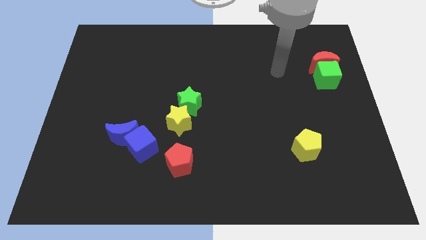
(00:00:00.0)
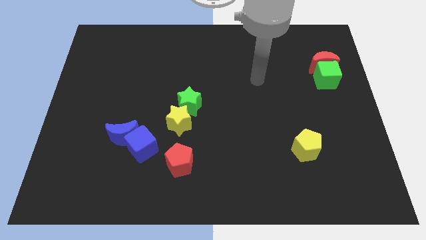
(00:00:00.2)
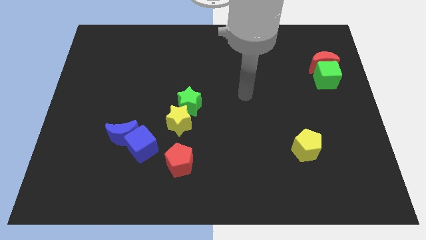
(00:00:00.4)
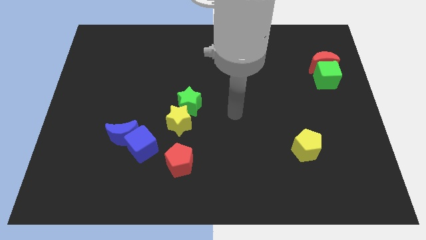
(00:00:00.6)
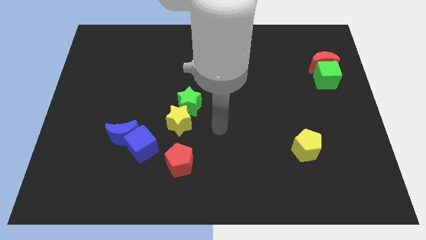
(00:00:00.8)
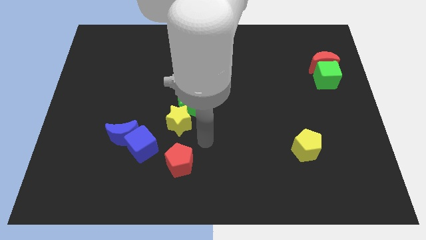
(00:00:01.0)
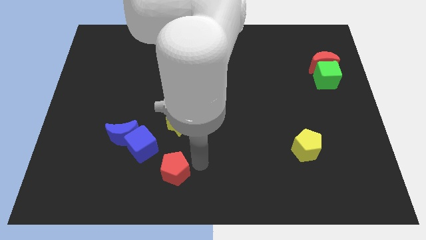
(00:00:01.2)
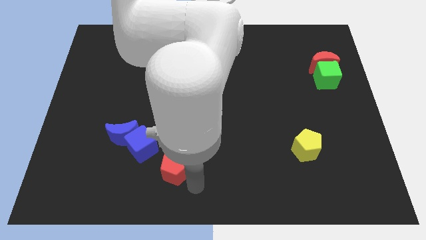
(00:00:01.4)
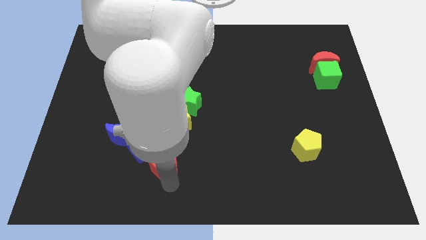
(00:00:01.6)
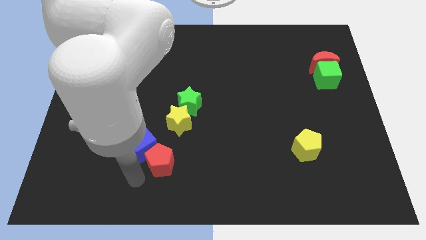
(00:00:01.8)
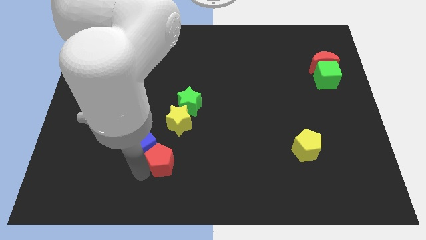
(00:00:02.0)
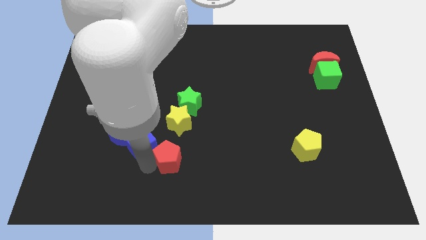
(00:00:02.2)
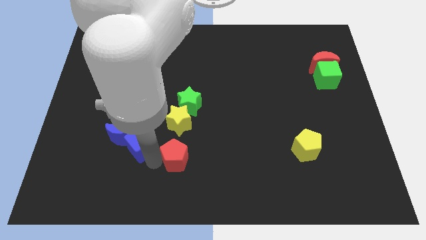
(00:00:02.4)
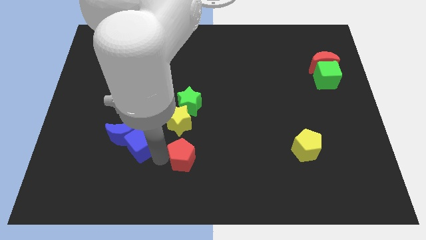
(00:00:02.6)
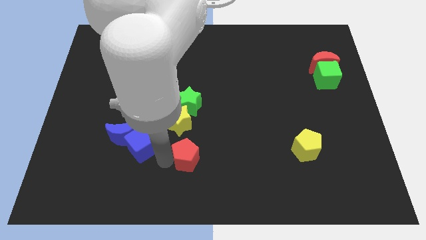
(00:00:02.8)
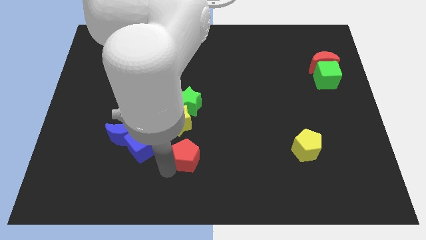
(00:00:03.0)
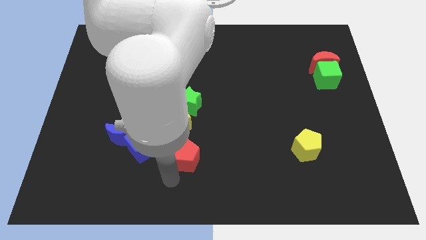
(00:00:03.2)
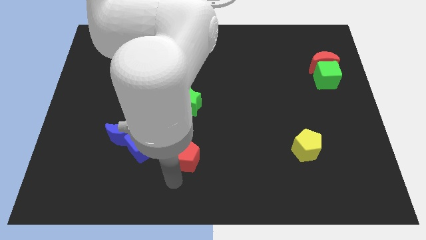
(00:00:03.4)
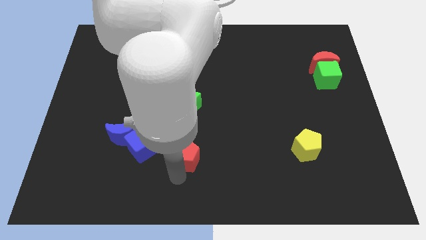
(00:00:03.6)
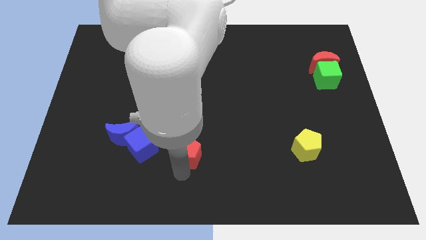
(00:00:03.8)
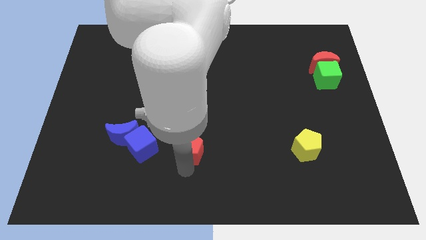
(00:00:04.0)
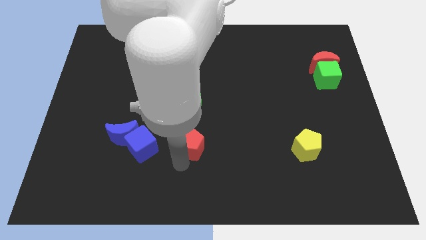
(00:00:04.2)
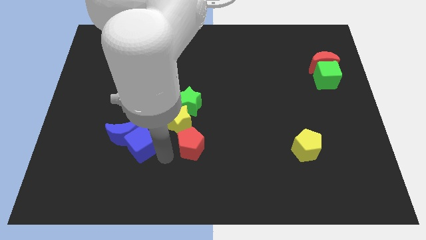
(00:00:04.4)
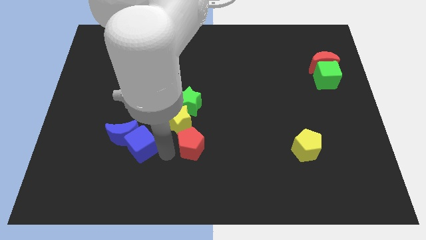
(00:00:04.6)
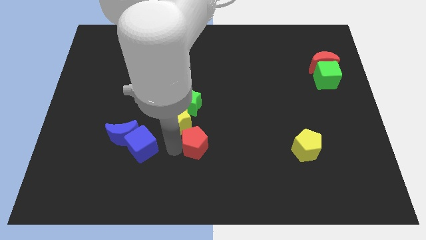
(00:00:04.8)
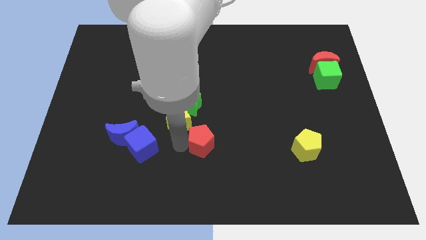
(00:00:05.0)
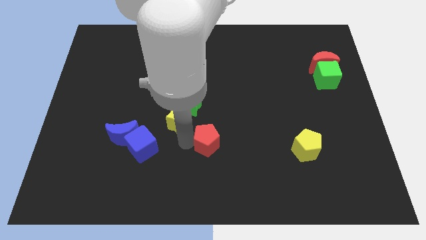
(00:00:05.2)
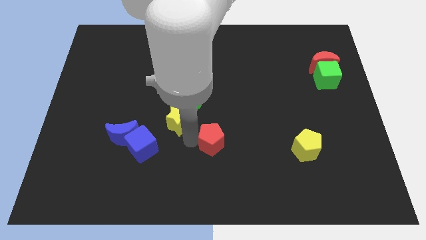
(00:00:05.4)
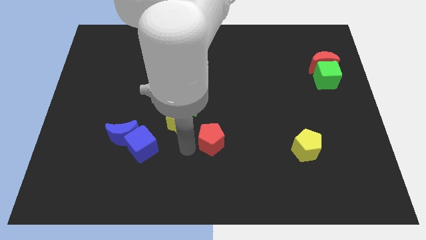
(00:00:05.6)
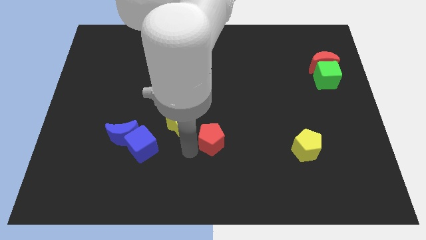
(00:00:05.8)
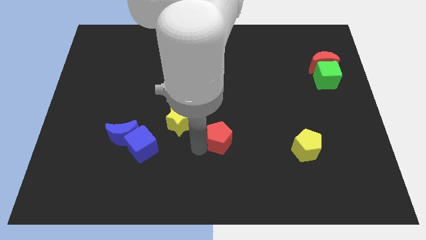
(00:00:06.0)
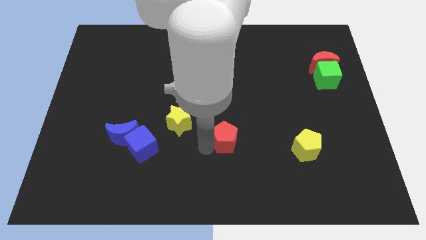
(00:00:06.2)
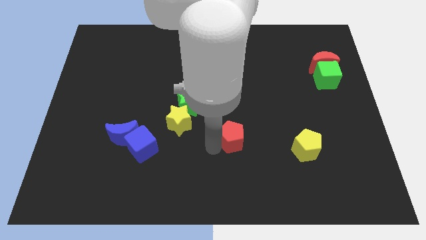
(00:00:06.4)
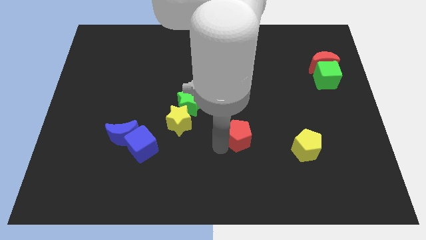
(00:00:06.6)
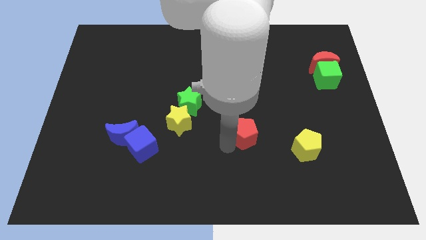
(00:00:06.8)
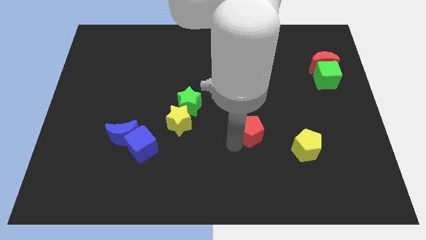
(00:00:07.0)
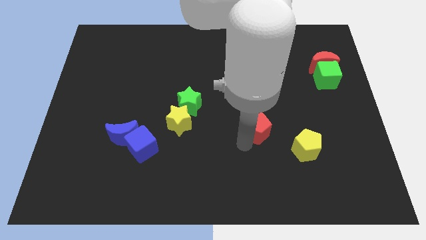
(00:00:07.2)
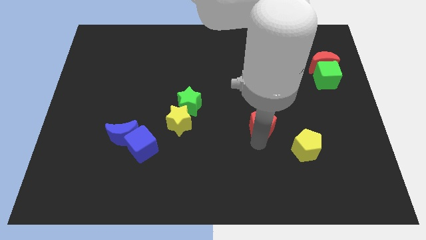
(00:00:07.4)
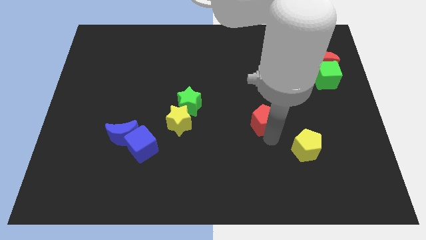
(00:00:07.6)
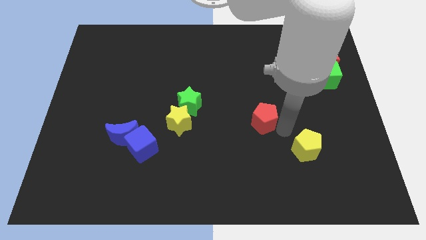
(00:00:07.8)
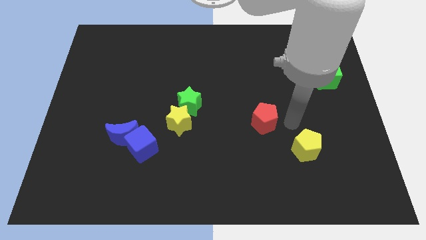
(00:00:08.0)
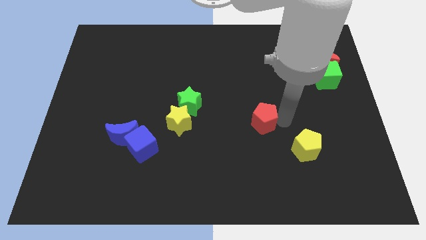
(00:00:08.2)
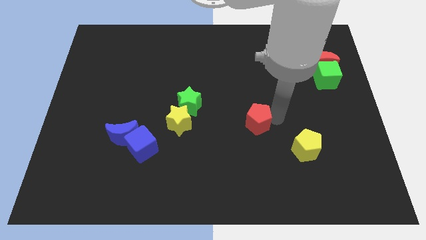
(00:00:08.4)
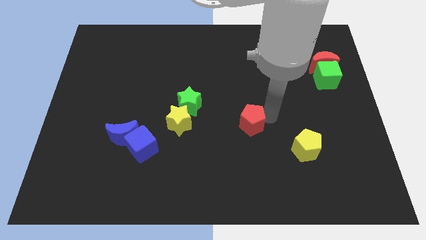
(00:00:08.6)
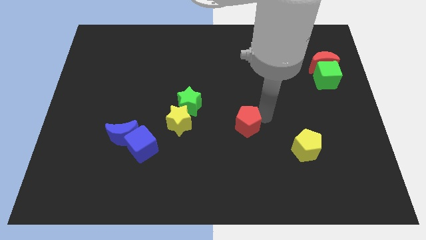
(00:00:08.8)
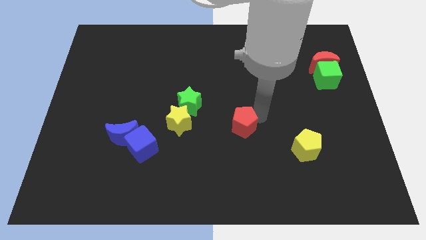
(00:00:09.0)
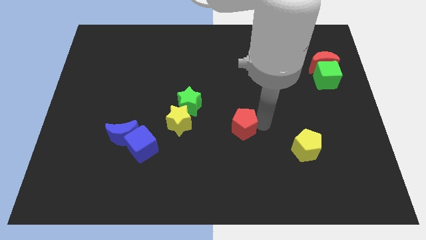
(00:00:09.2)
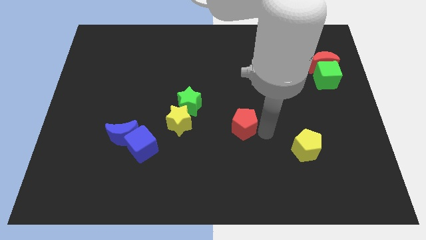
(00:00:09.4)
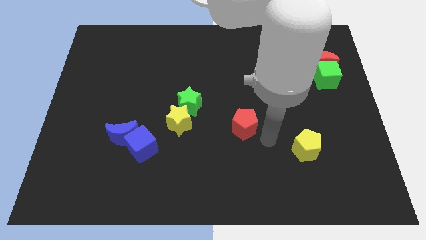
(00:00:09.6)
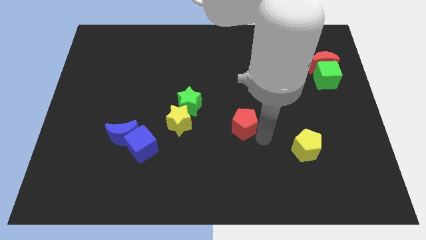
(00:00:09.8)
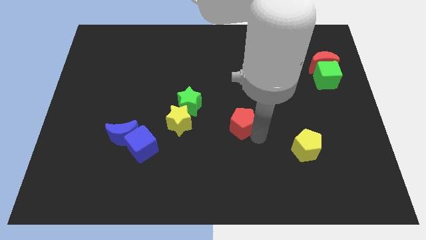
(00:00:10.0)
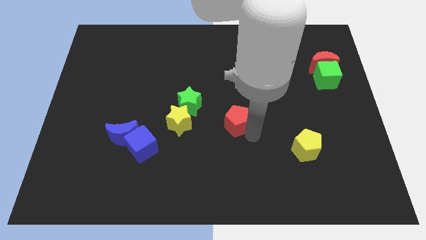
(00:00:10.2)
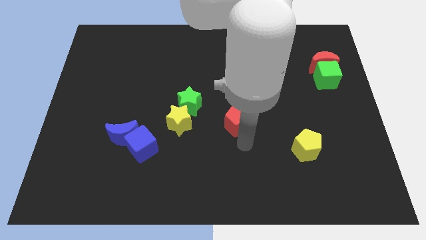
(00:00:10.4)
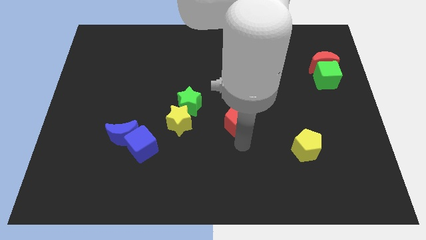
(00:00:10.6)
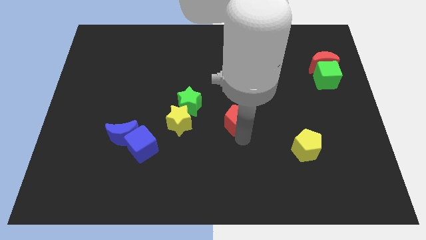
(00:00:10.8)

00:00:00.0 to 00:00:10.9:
move the red pentagon right of the green star

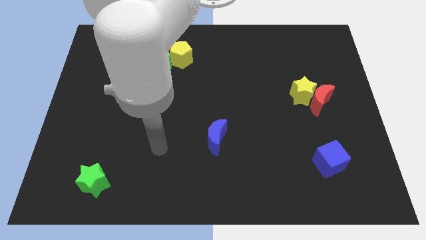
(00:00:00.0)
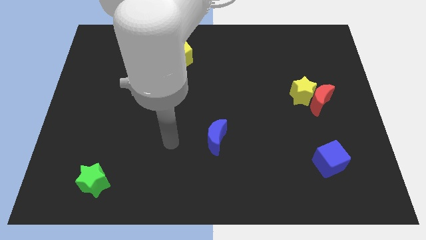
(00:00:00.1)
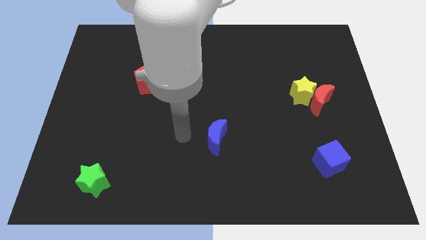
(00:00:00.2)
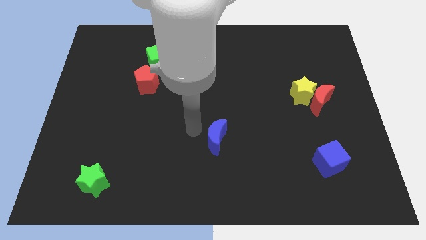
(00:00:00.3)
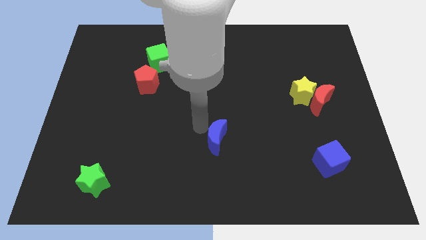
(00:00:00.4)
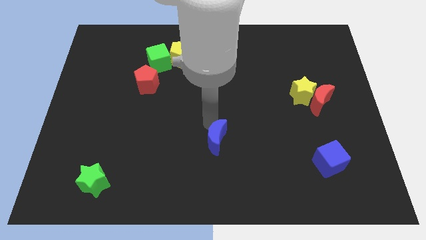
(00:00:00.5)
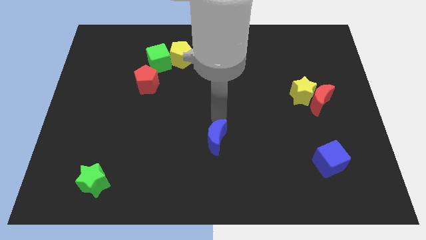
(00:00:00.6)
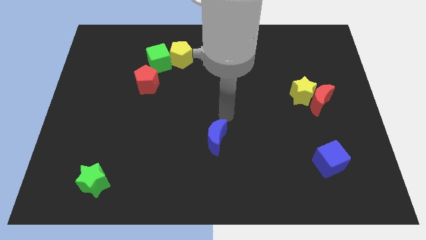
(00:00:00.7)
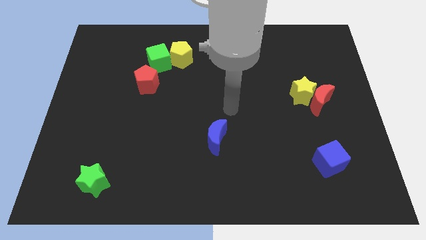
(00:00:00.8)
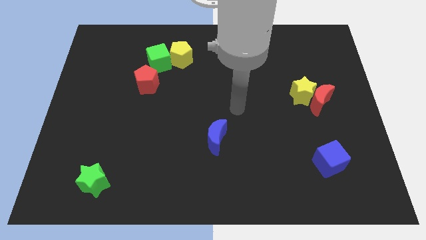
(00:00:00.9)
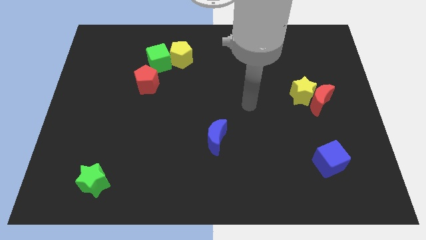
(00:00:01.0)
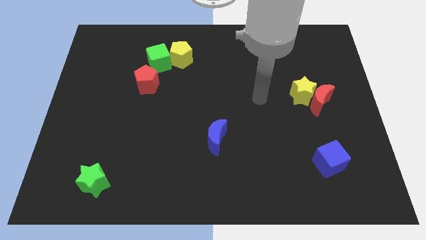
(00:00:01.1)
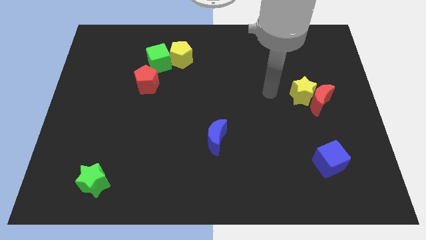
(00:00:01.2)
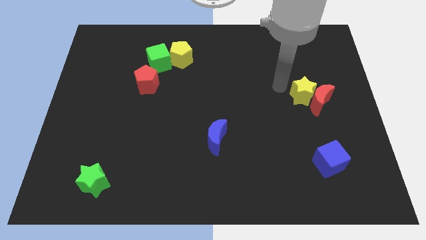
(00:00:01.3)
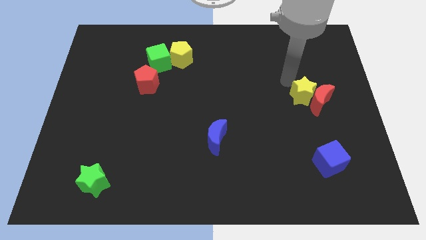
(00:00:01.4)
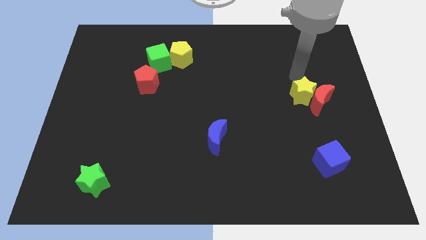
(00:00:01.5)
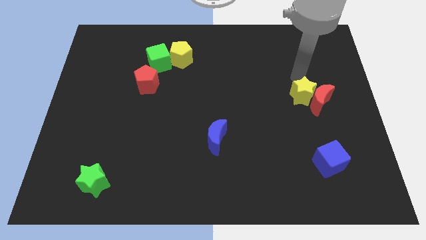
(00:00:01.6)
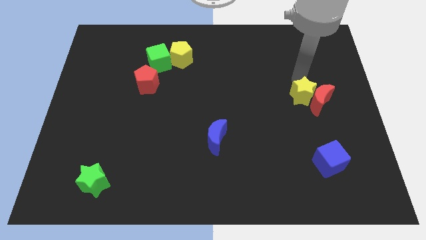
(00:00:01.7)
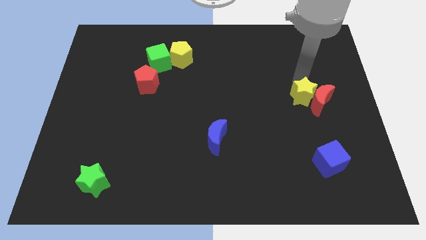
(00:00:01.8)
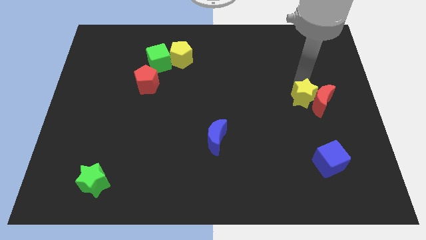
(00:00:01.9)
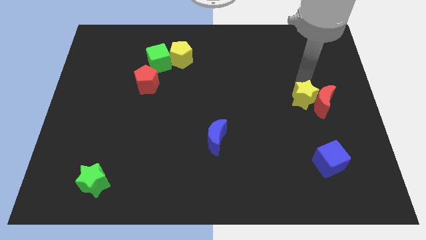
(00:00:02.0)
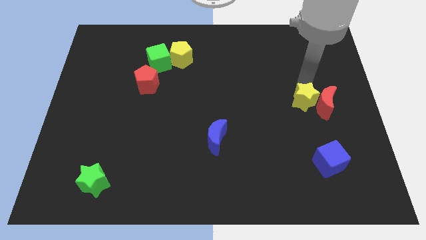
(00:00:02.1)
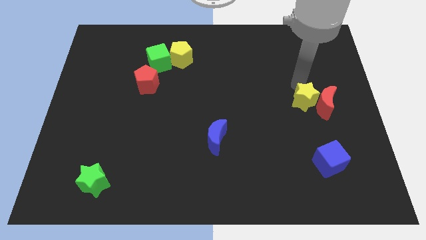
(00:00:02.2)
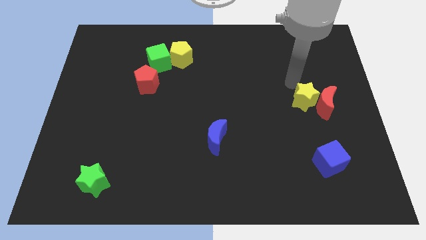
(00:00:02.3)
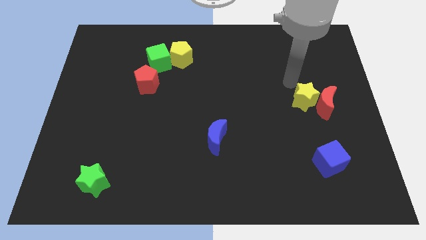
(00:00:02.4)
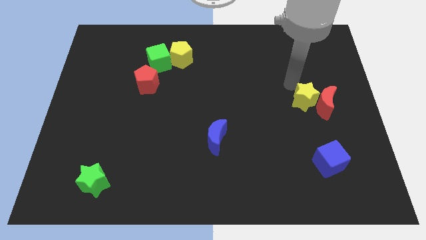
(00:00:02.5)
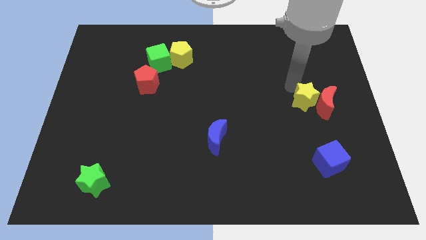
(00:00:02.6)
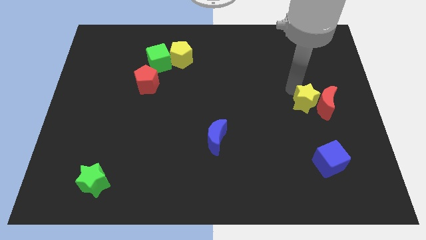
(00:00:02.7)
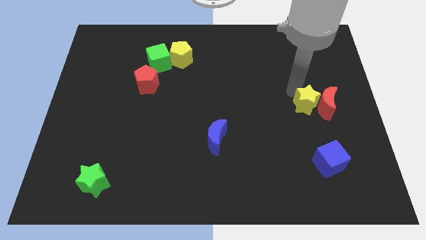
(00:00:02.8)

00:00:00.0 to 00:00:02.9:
move the yellow star to the top of the blue cube
